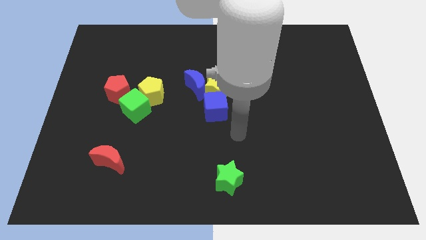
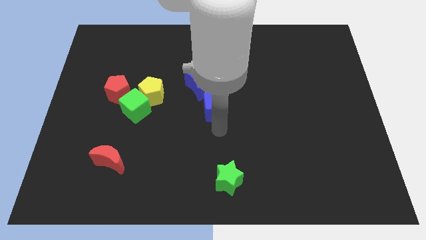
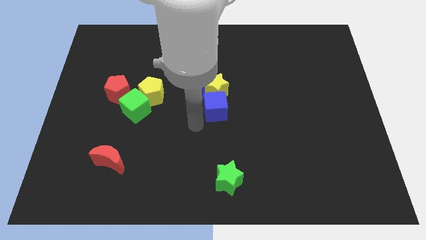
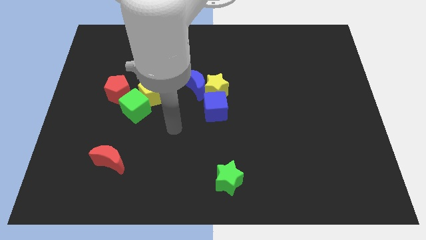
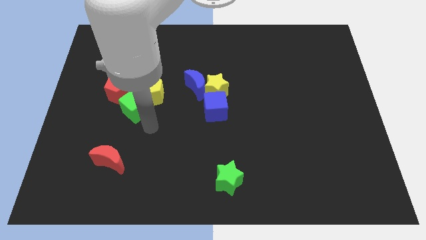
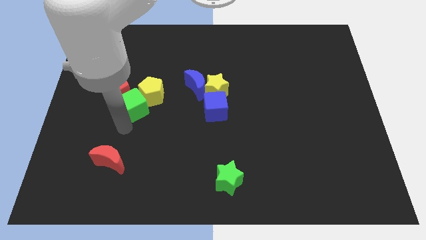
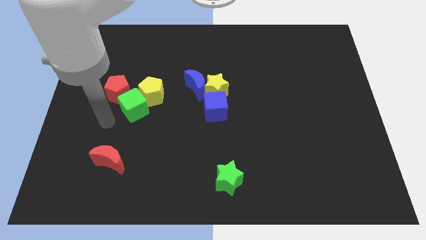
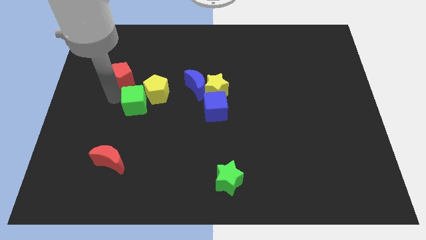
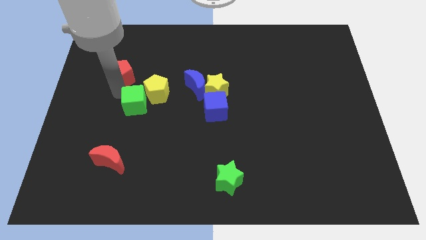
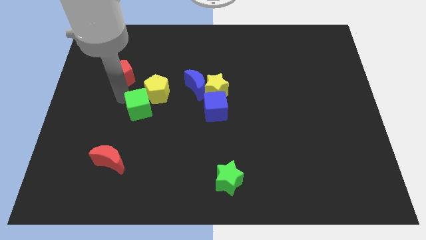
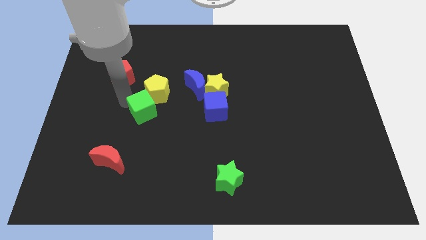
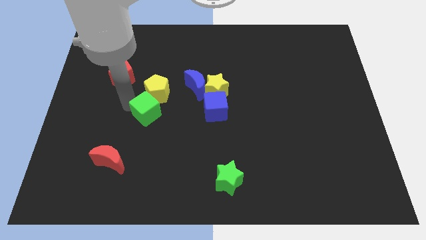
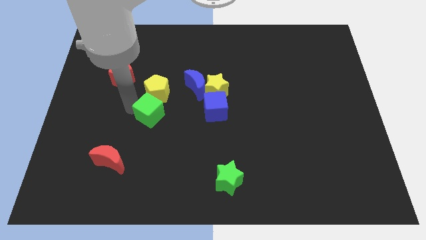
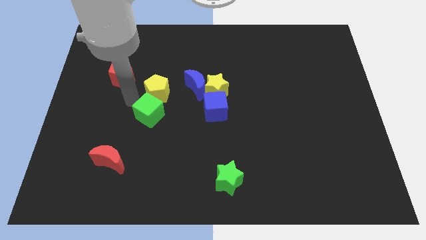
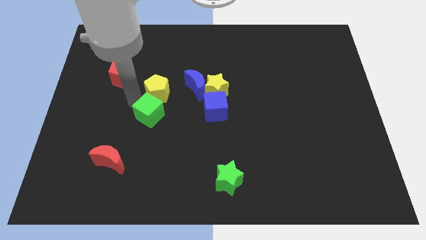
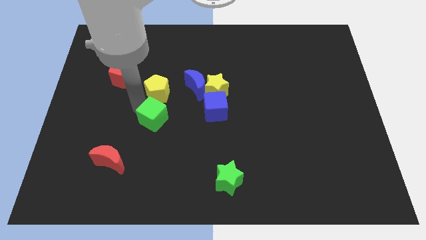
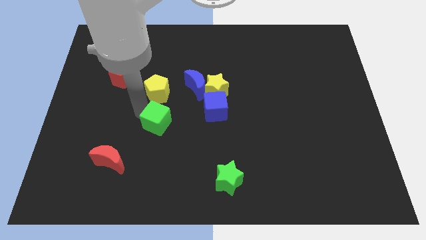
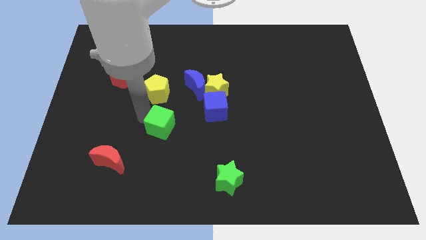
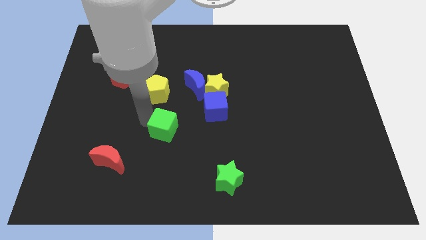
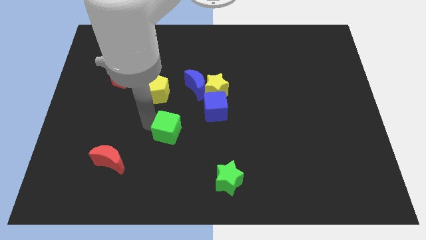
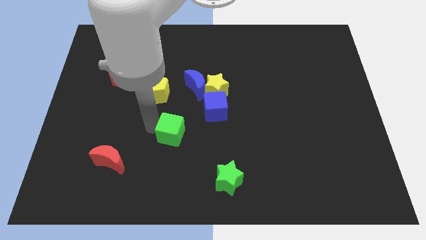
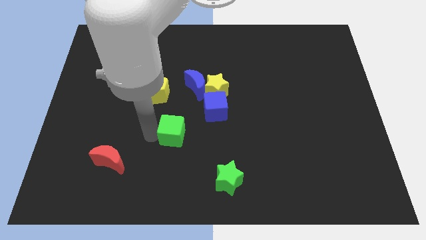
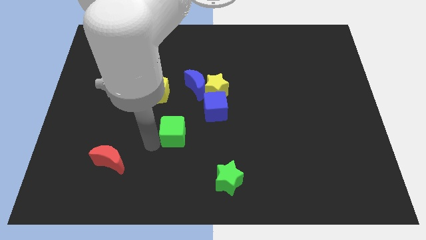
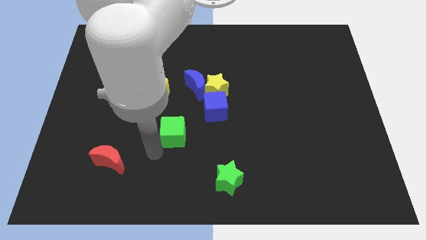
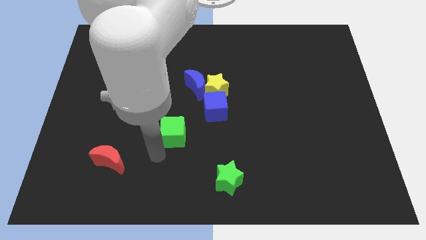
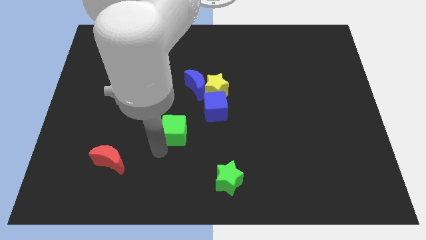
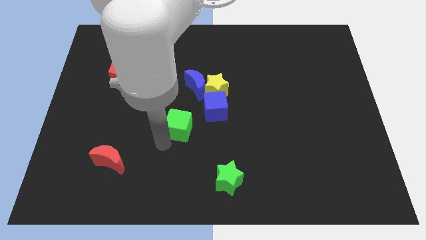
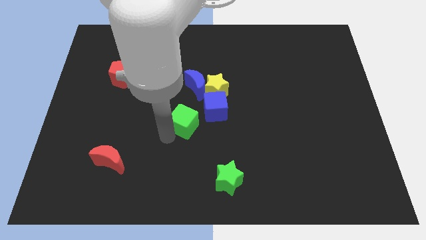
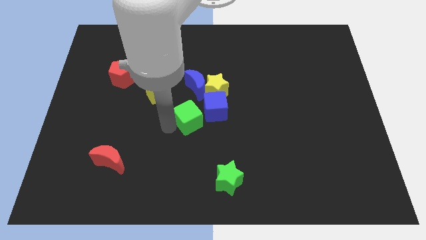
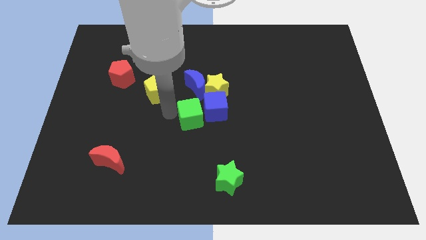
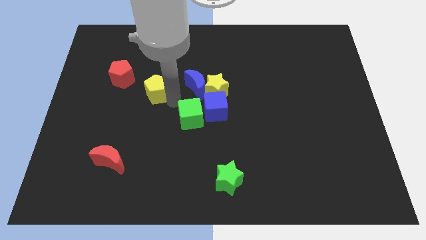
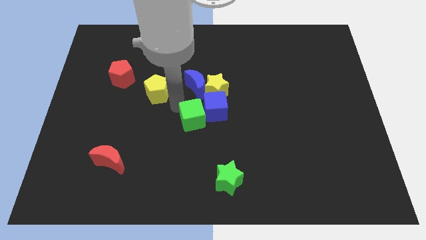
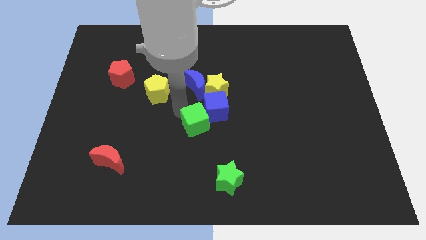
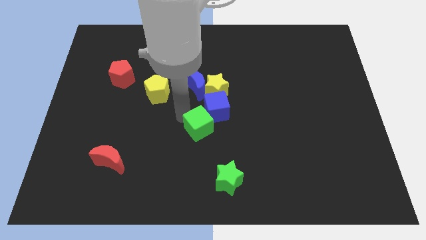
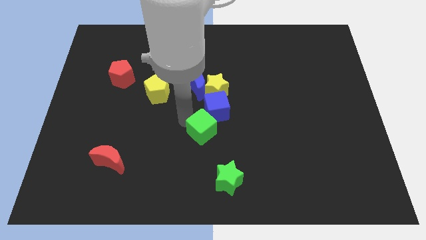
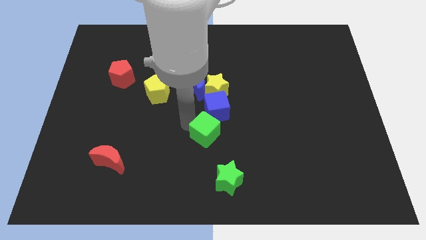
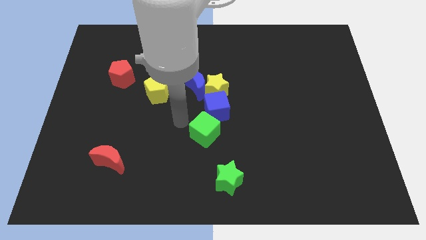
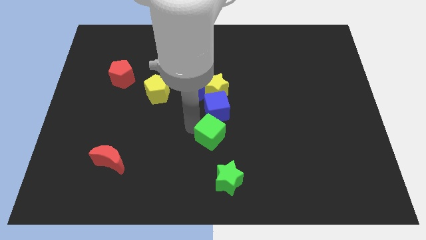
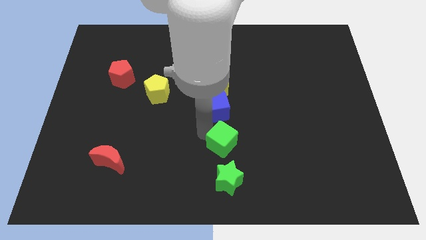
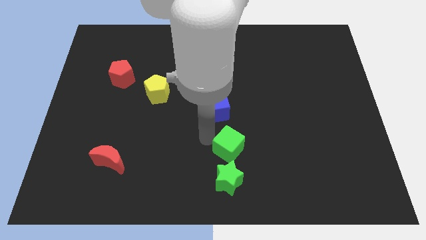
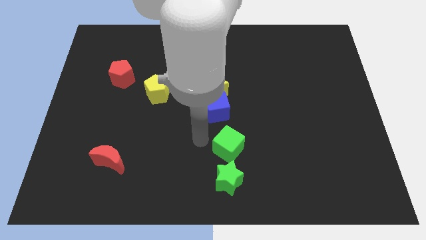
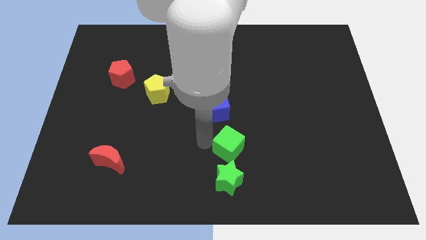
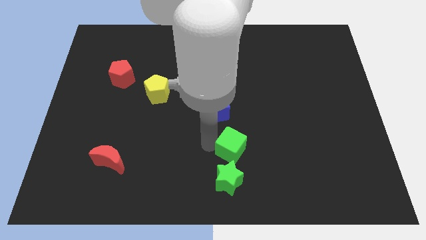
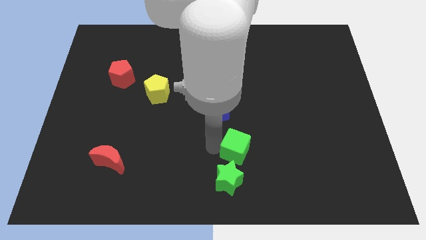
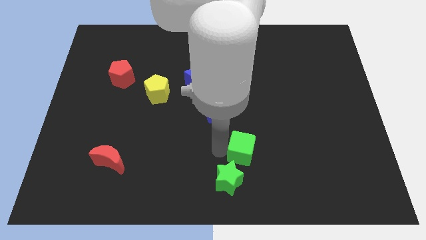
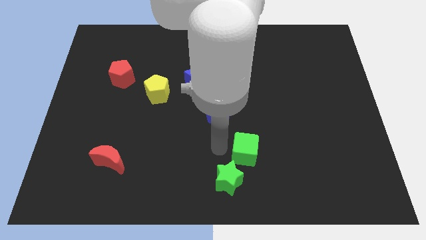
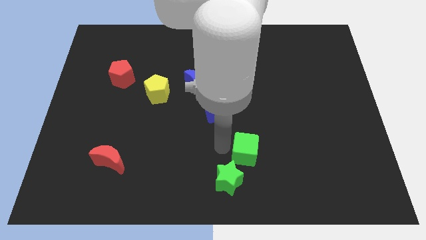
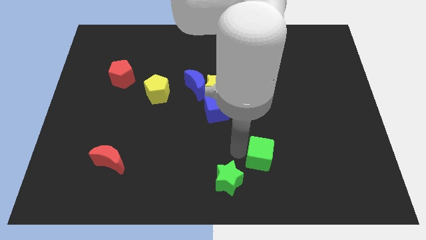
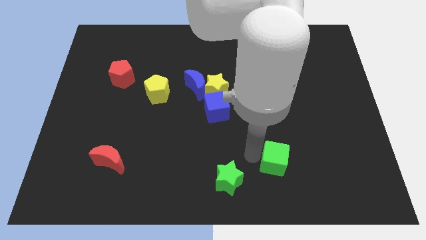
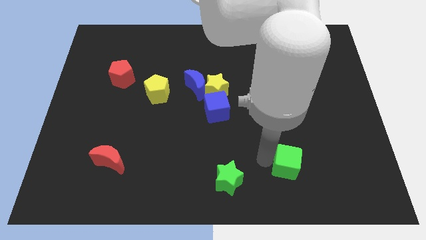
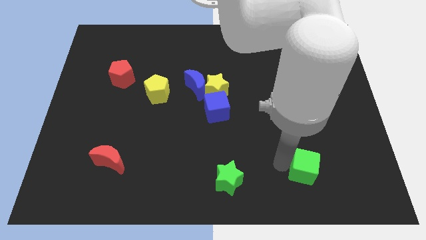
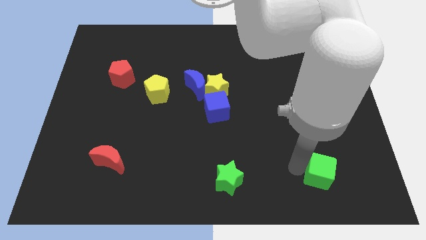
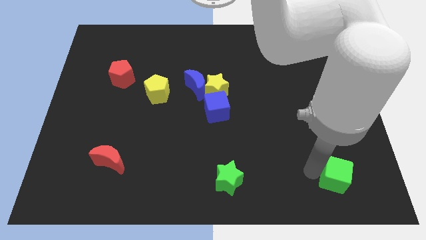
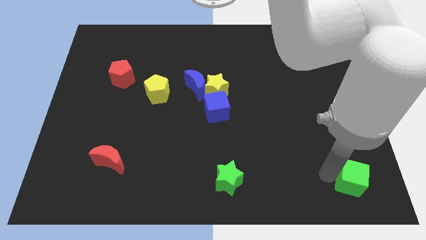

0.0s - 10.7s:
slide the green cube to the lower right corner

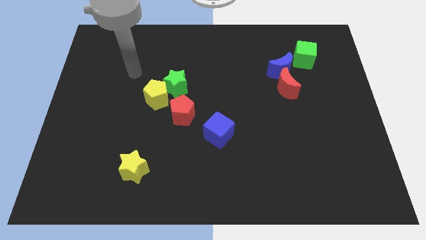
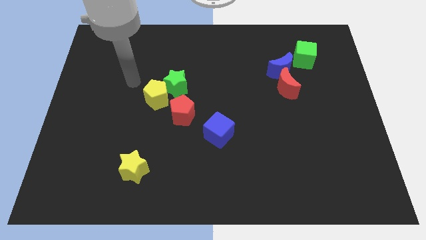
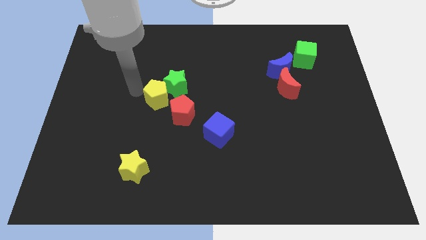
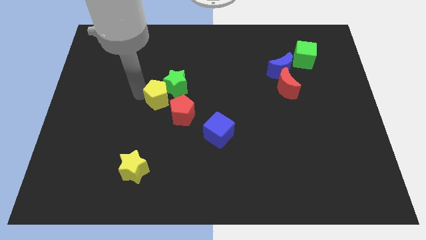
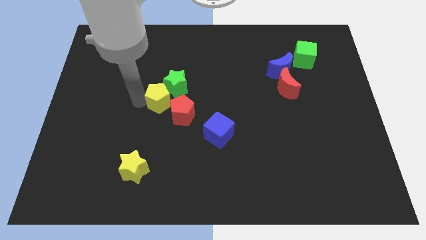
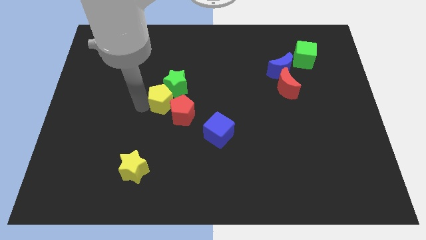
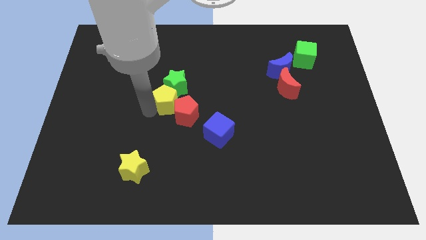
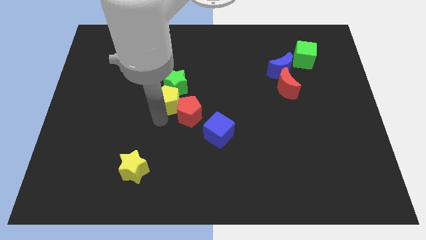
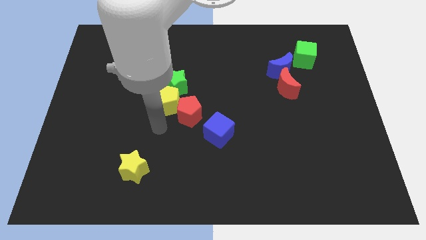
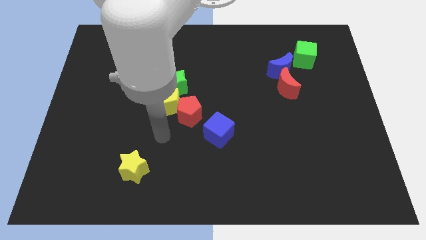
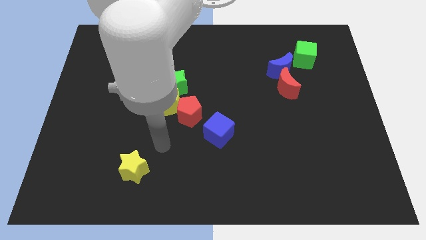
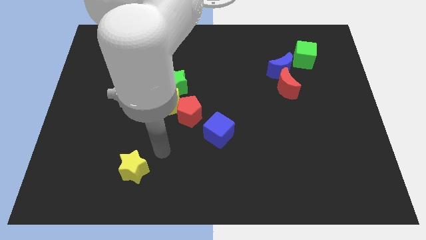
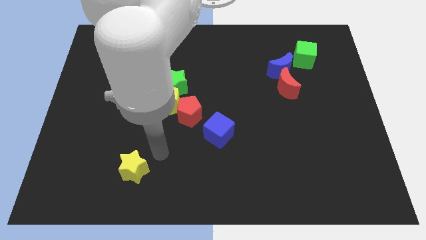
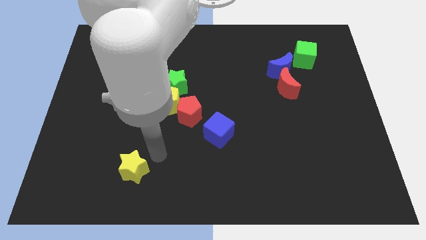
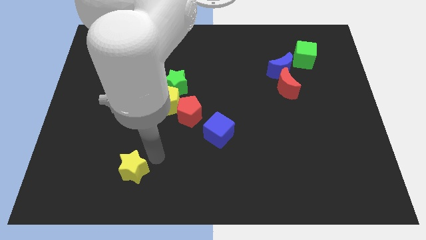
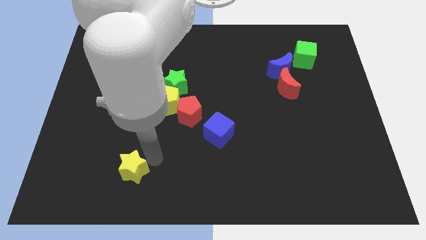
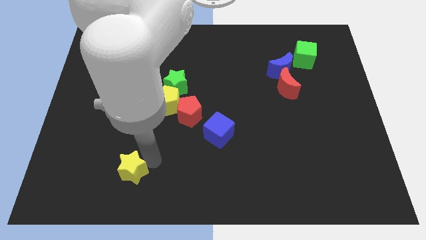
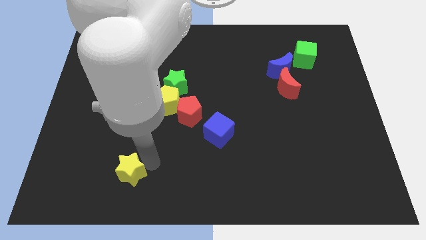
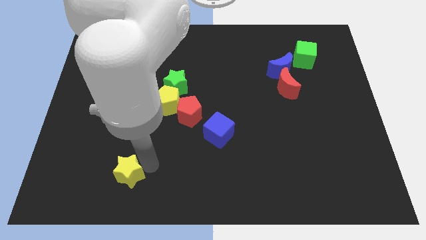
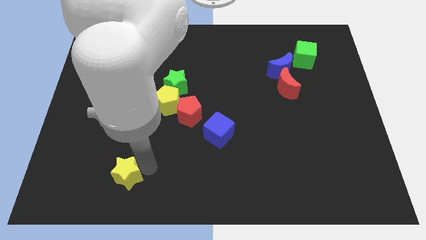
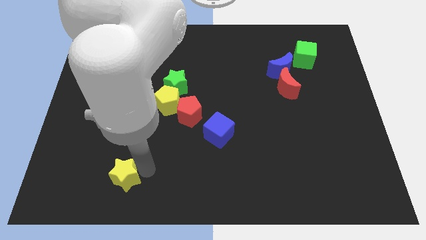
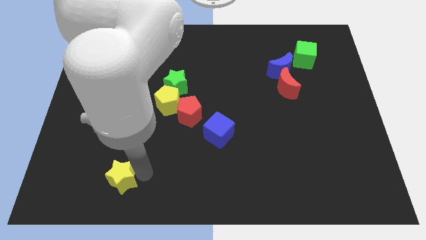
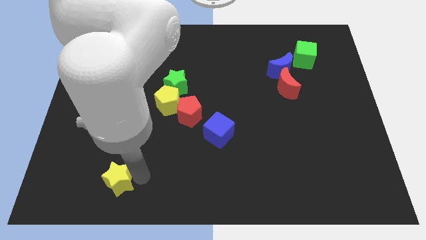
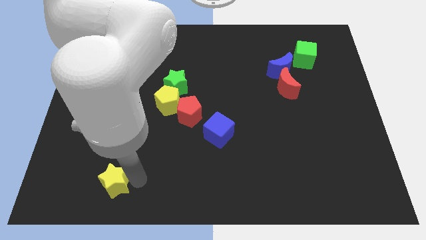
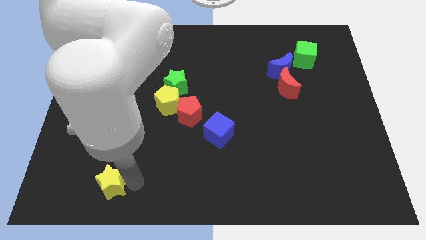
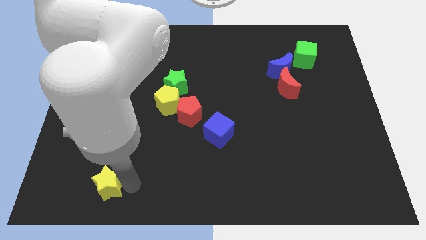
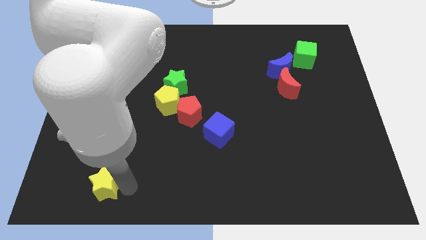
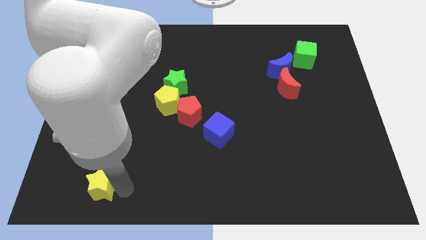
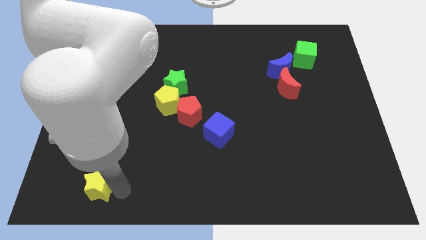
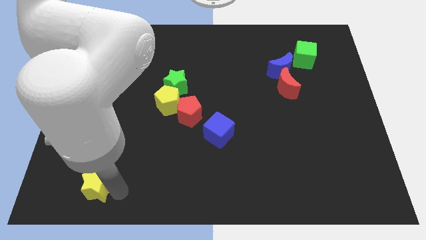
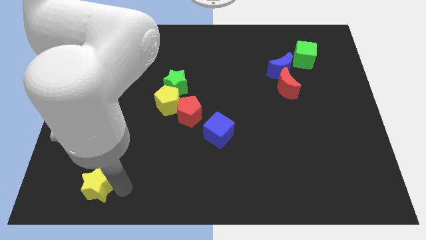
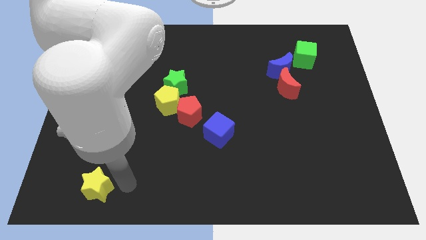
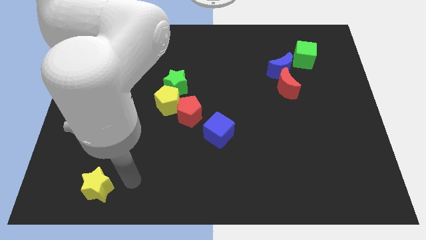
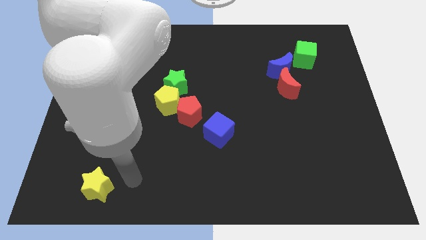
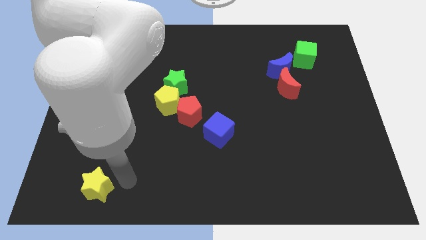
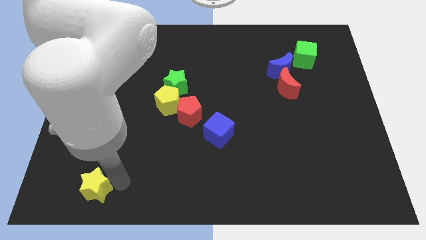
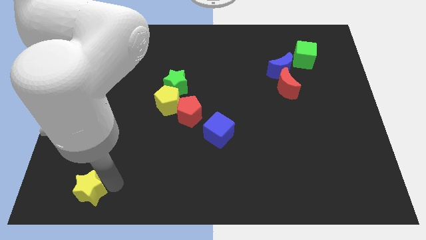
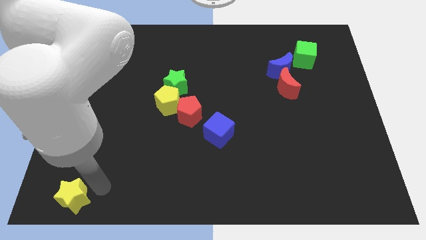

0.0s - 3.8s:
push the yellow star to the bottom left corner
